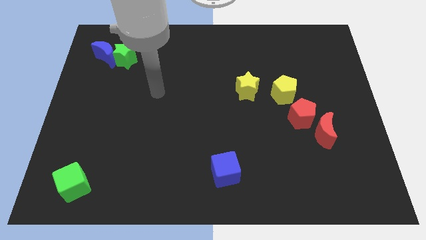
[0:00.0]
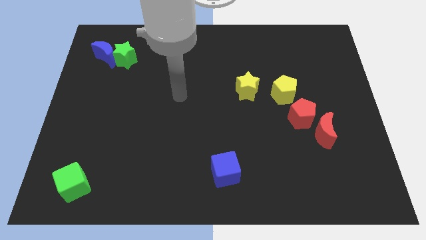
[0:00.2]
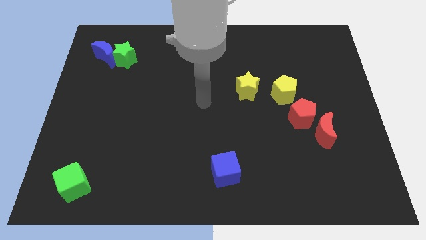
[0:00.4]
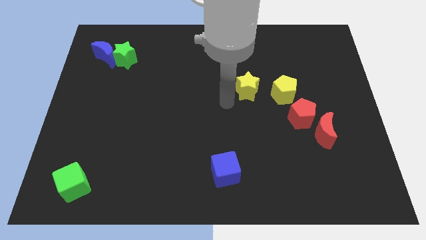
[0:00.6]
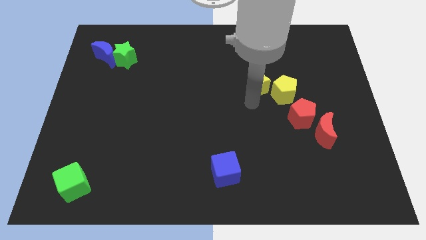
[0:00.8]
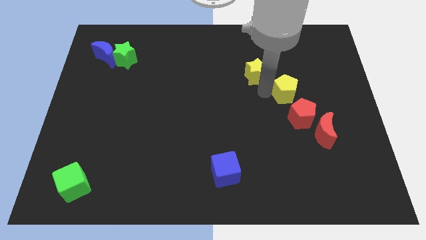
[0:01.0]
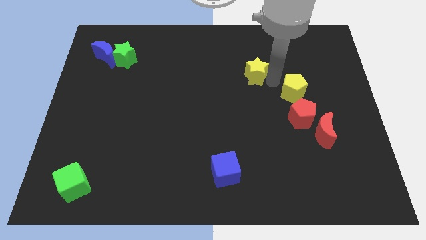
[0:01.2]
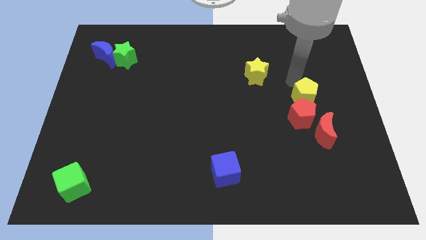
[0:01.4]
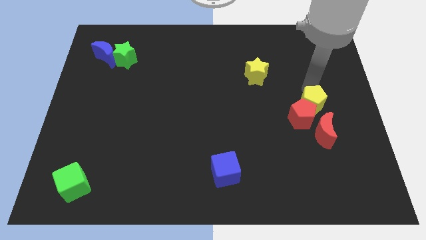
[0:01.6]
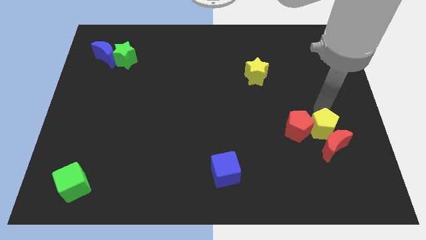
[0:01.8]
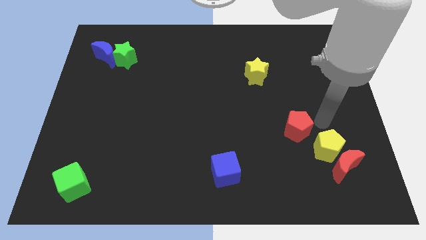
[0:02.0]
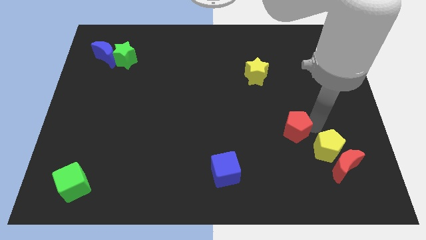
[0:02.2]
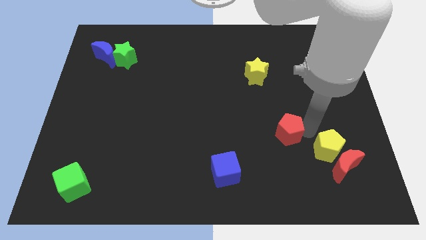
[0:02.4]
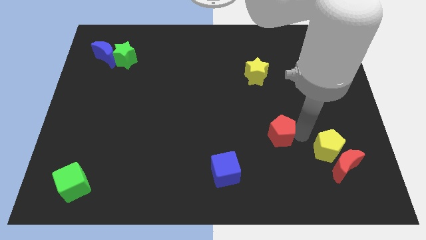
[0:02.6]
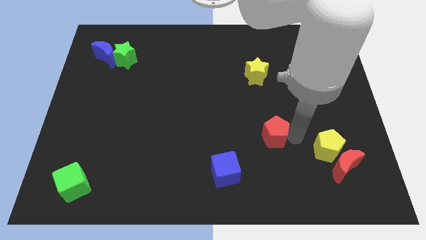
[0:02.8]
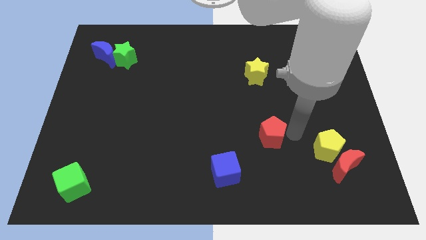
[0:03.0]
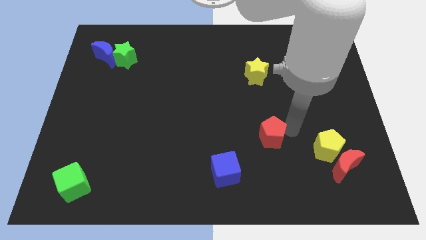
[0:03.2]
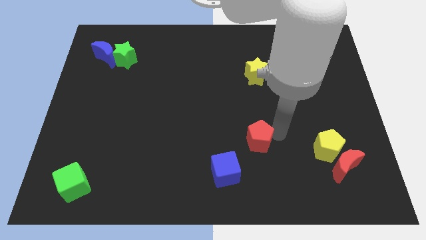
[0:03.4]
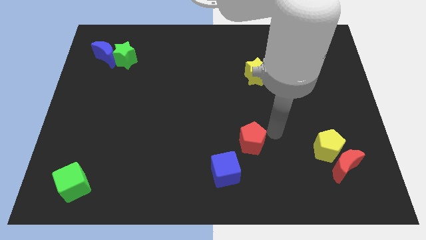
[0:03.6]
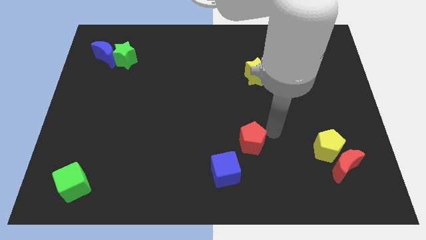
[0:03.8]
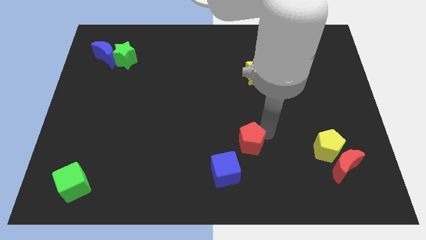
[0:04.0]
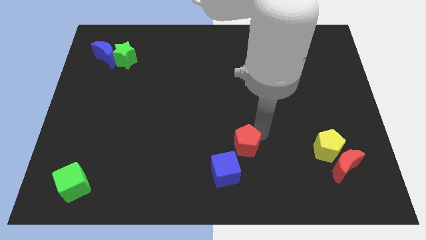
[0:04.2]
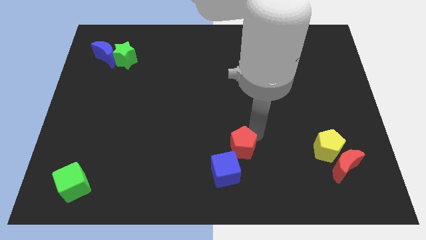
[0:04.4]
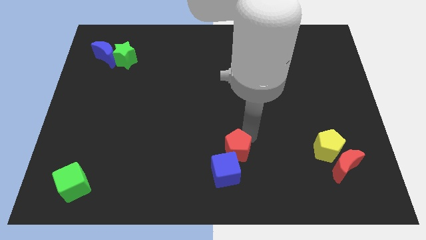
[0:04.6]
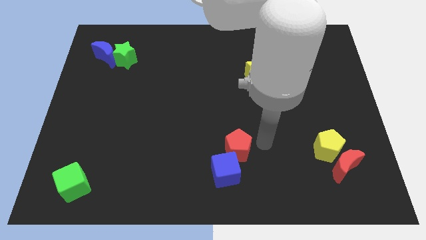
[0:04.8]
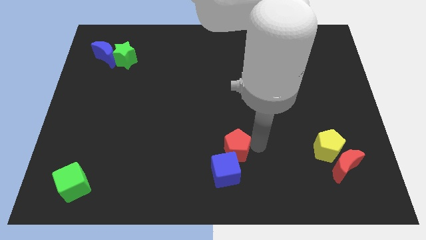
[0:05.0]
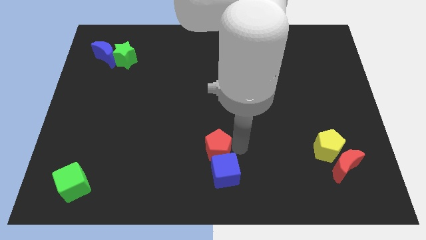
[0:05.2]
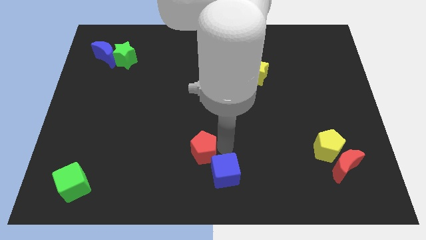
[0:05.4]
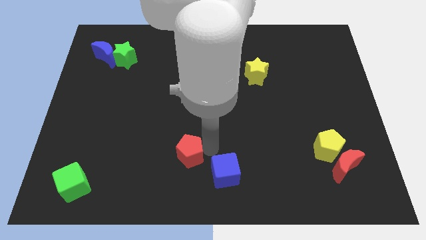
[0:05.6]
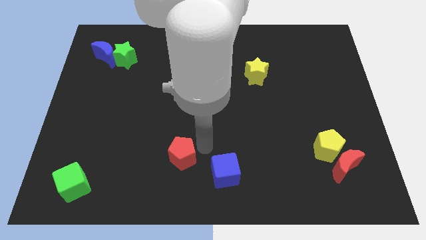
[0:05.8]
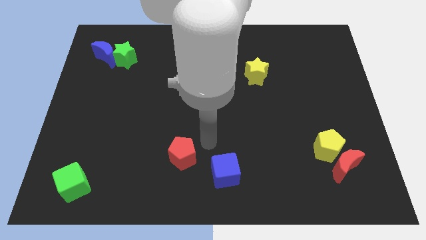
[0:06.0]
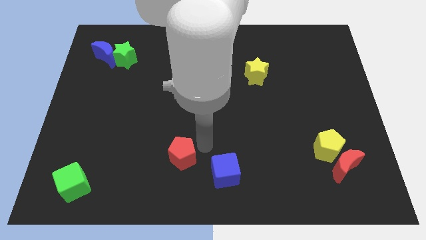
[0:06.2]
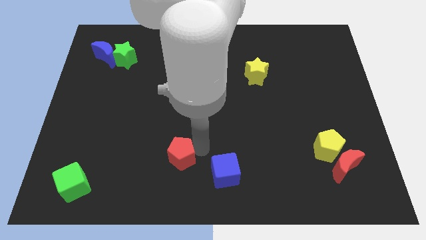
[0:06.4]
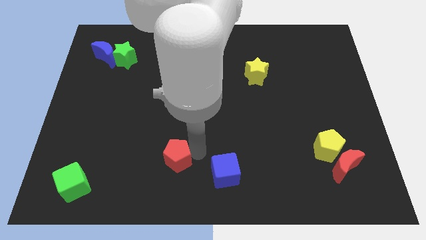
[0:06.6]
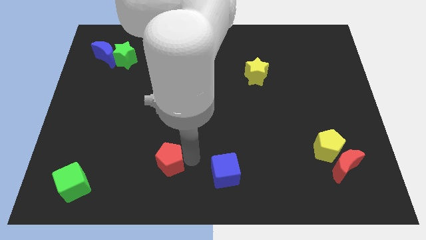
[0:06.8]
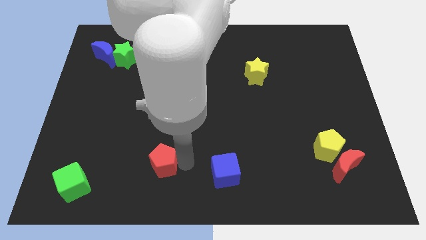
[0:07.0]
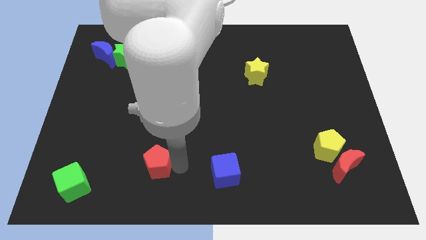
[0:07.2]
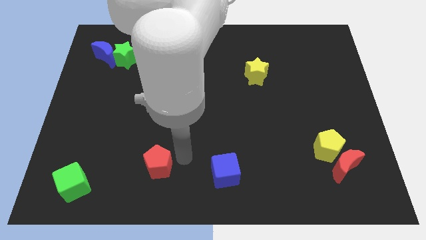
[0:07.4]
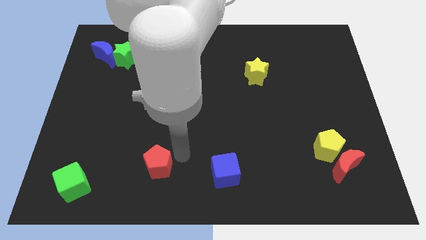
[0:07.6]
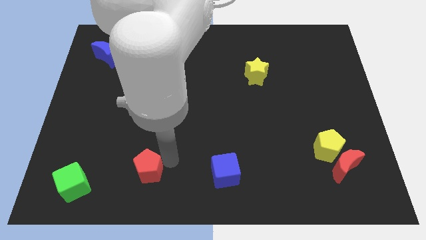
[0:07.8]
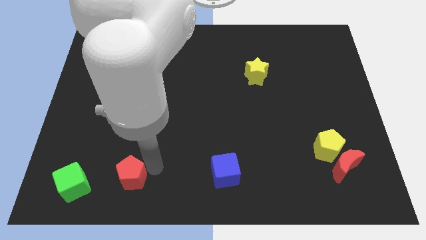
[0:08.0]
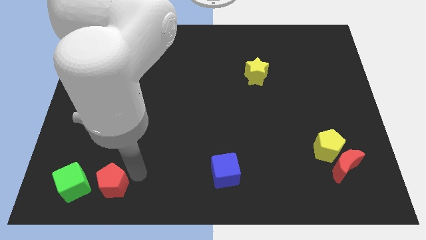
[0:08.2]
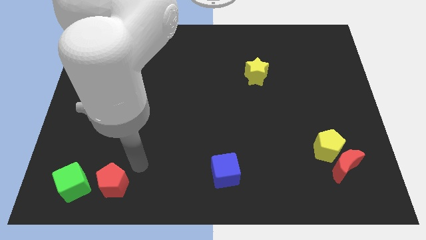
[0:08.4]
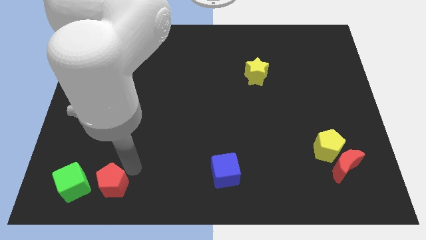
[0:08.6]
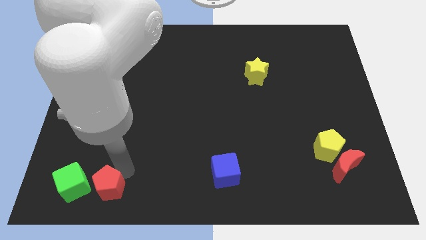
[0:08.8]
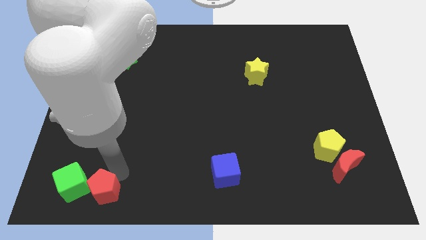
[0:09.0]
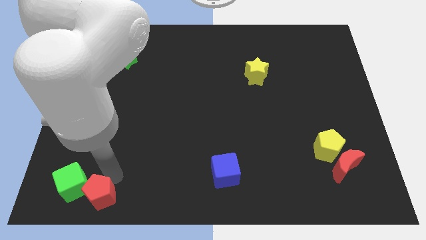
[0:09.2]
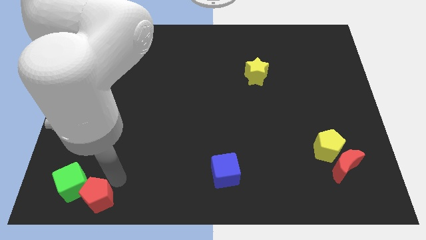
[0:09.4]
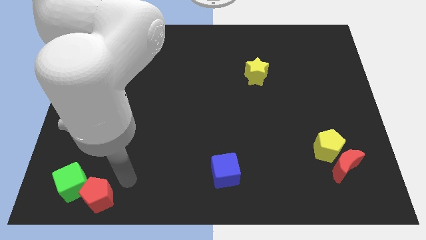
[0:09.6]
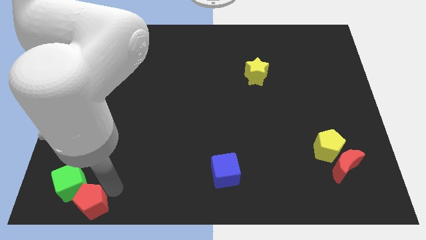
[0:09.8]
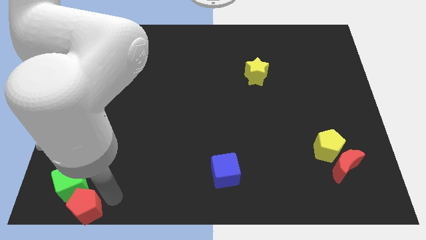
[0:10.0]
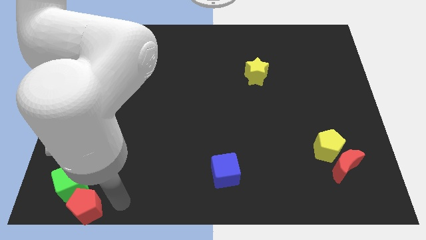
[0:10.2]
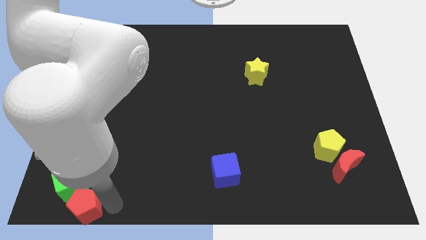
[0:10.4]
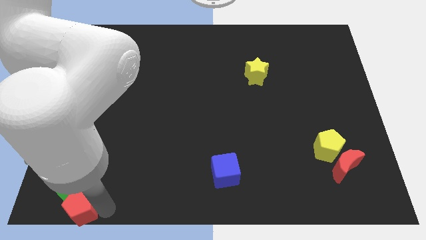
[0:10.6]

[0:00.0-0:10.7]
move the red pentagon to the bottom left of the board

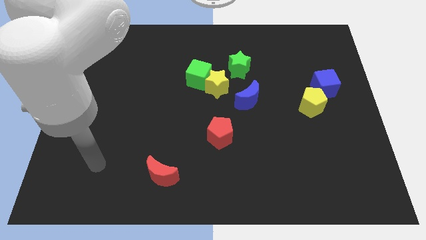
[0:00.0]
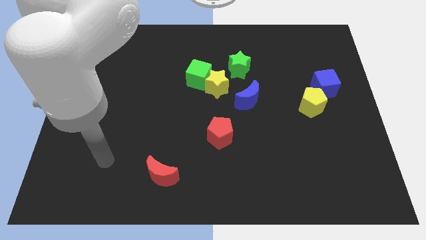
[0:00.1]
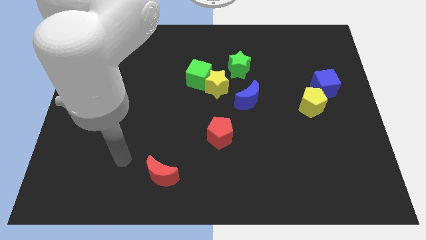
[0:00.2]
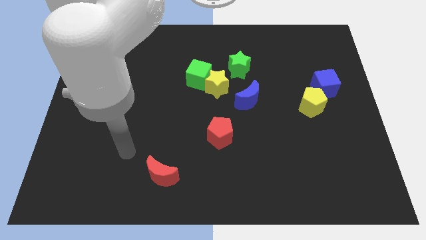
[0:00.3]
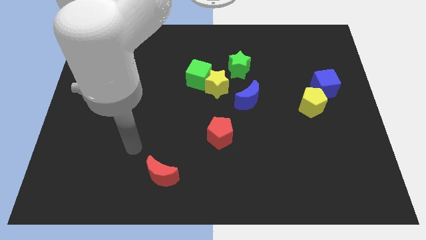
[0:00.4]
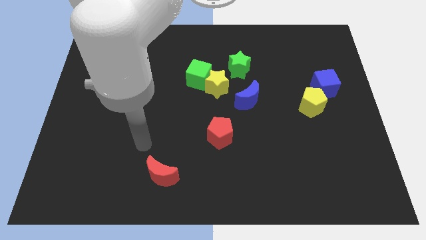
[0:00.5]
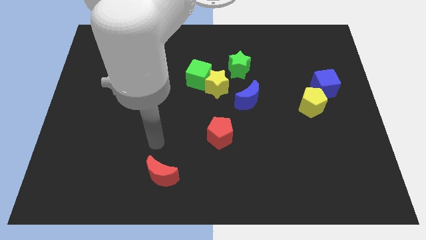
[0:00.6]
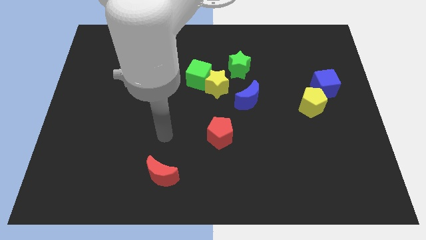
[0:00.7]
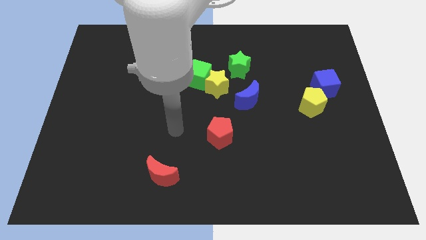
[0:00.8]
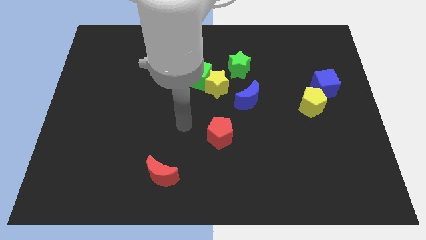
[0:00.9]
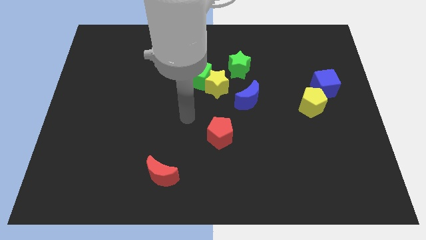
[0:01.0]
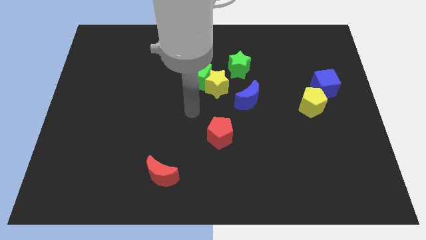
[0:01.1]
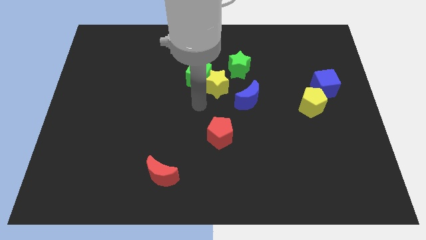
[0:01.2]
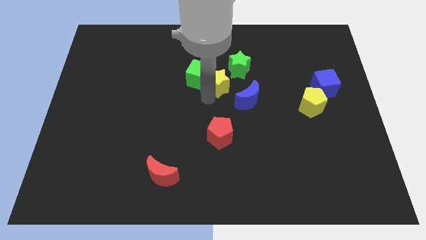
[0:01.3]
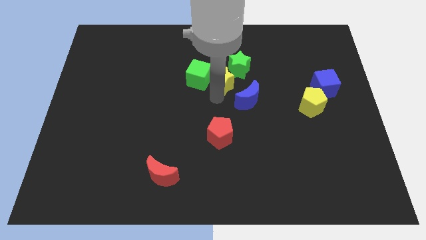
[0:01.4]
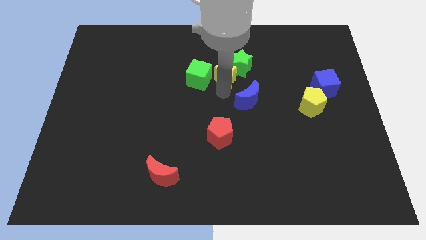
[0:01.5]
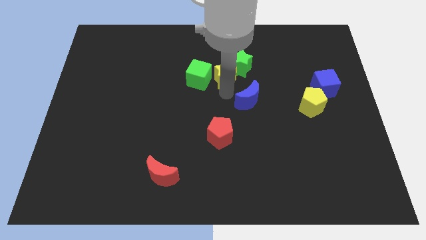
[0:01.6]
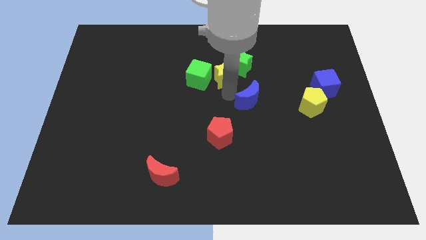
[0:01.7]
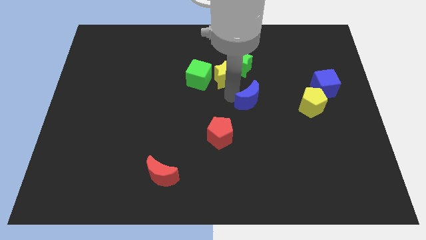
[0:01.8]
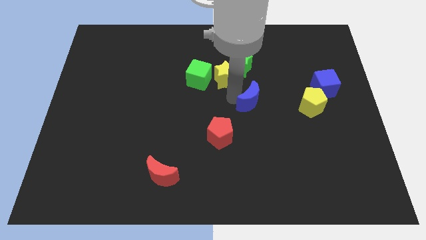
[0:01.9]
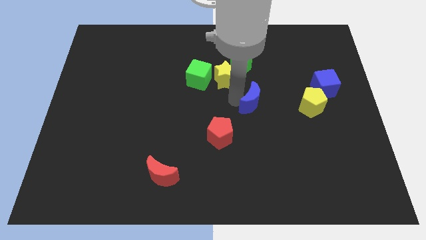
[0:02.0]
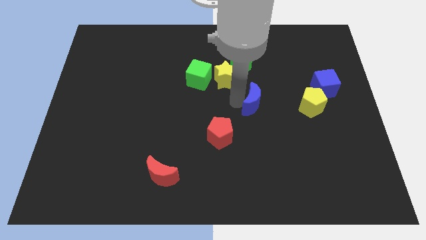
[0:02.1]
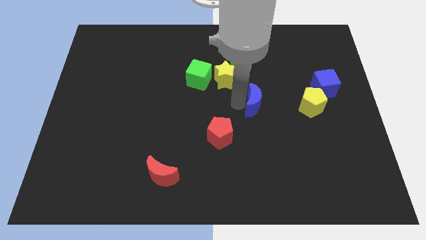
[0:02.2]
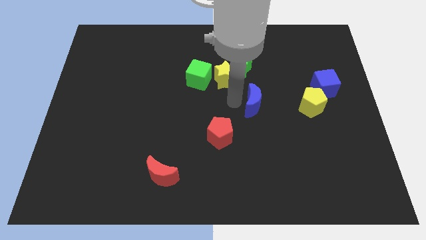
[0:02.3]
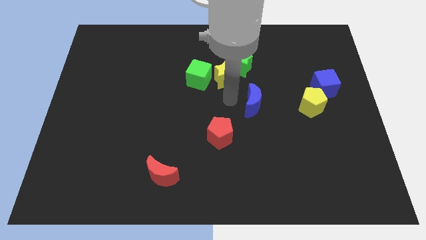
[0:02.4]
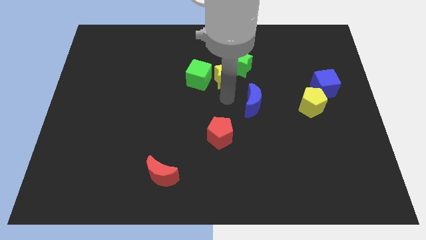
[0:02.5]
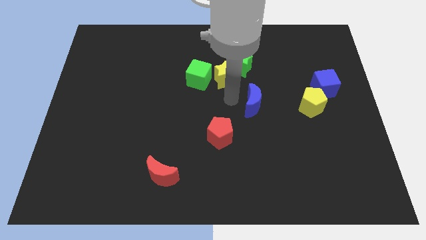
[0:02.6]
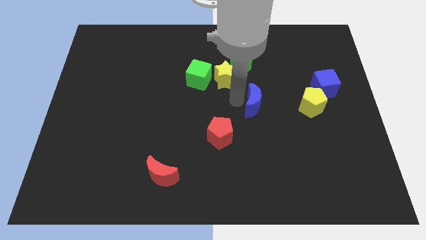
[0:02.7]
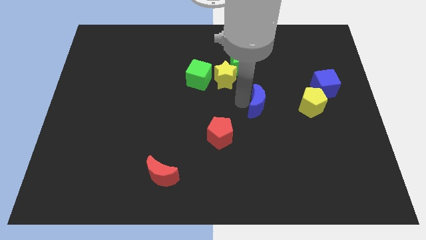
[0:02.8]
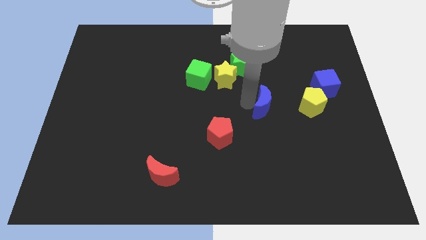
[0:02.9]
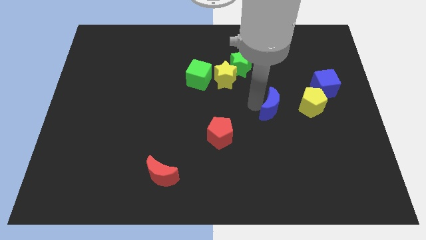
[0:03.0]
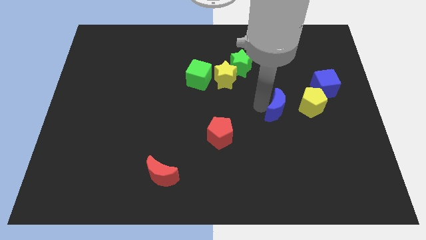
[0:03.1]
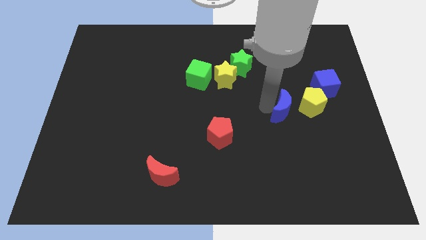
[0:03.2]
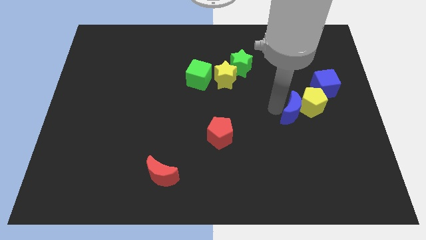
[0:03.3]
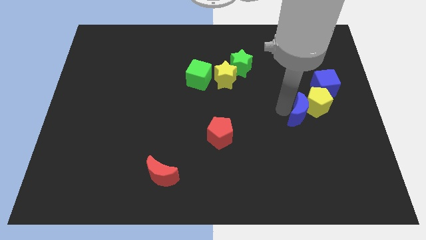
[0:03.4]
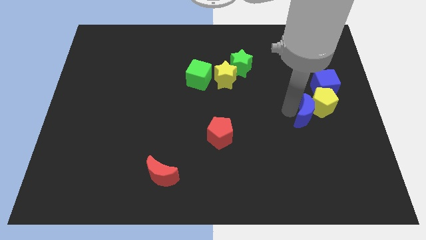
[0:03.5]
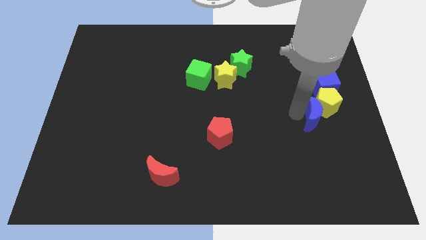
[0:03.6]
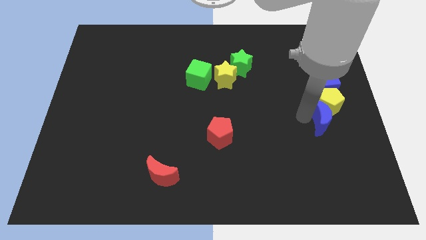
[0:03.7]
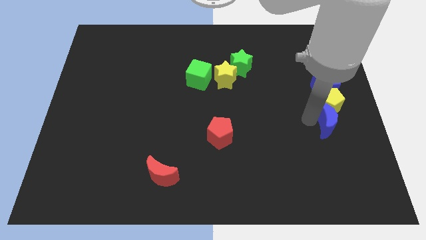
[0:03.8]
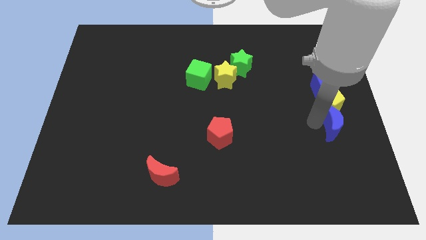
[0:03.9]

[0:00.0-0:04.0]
move the blue moon to the center right
